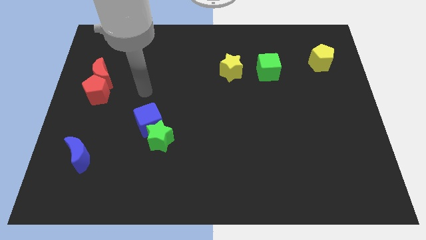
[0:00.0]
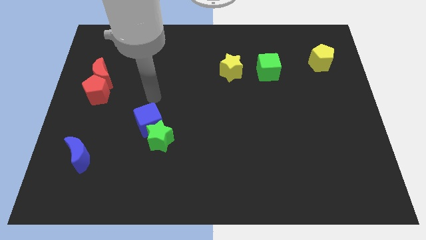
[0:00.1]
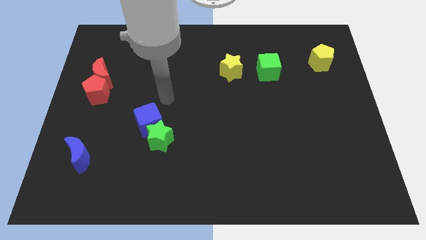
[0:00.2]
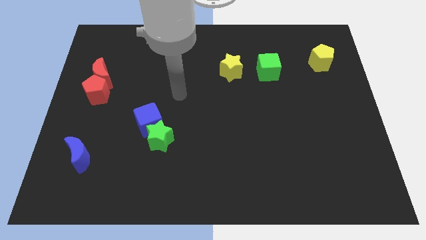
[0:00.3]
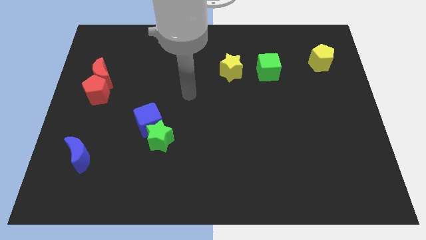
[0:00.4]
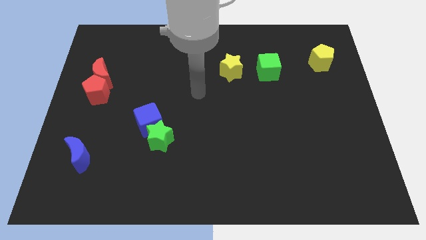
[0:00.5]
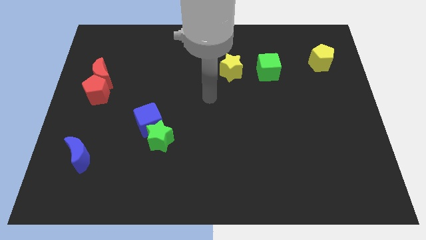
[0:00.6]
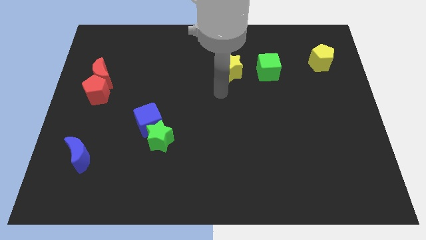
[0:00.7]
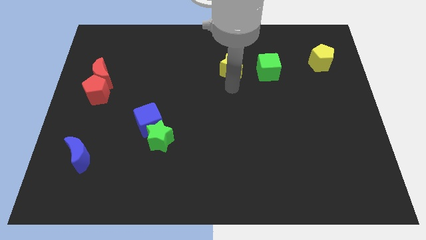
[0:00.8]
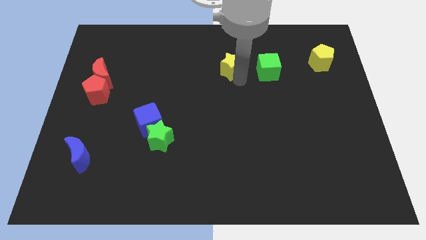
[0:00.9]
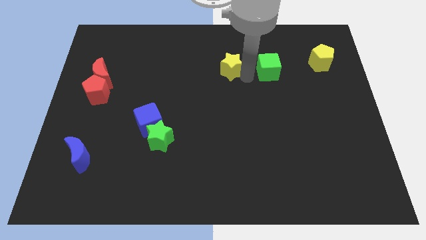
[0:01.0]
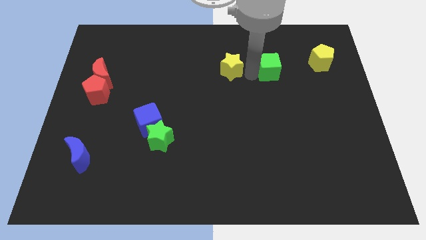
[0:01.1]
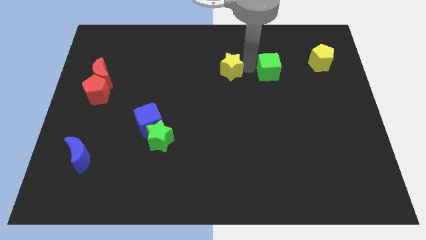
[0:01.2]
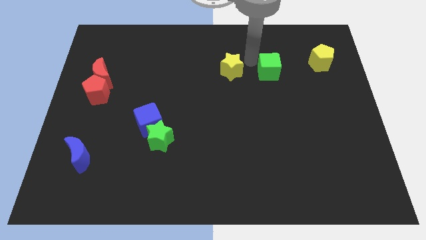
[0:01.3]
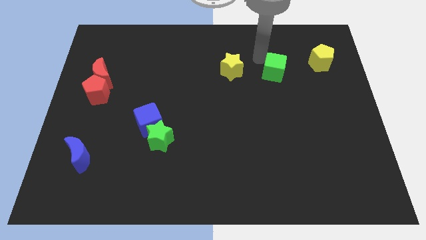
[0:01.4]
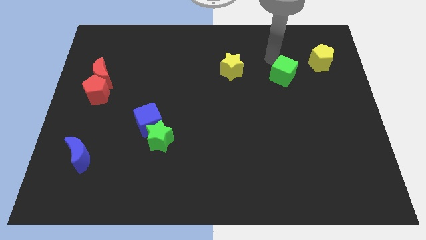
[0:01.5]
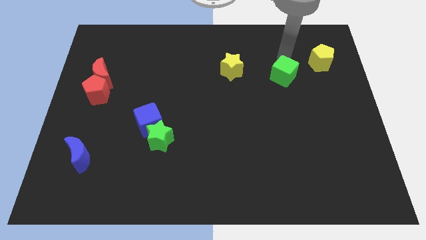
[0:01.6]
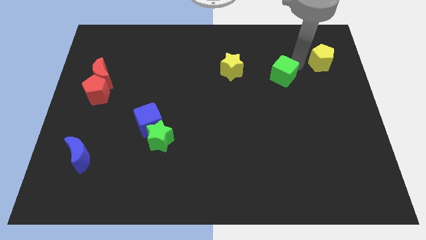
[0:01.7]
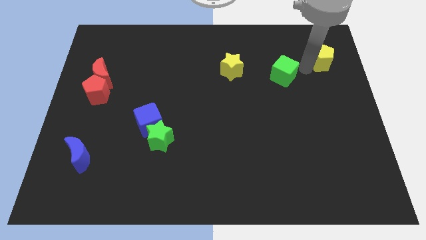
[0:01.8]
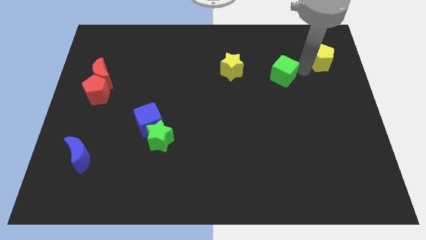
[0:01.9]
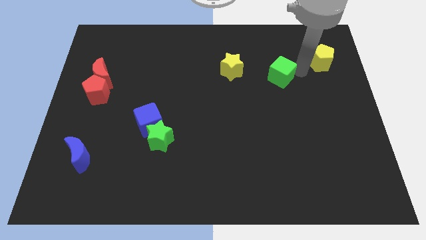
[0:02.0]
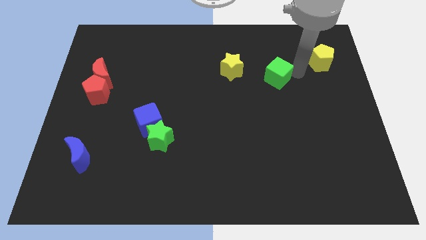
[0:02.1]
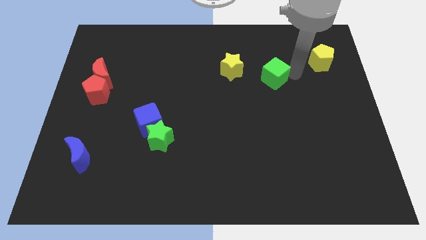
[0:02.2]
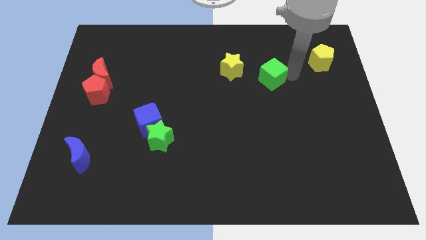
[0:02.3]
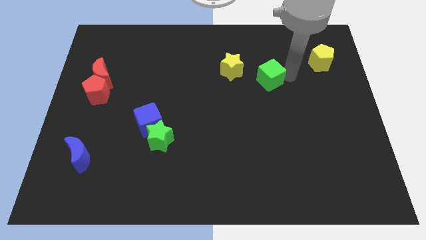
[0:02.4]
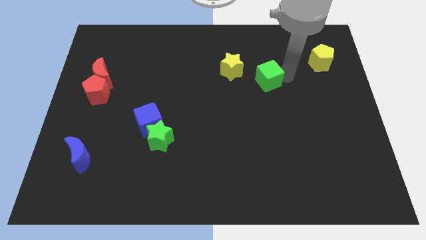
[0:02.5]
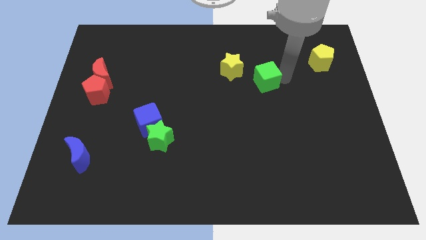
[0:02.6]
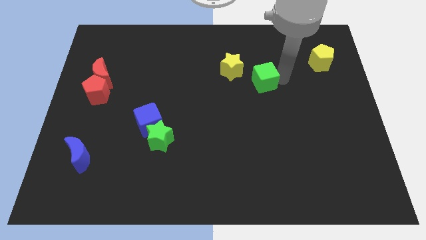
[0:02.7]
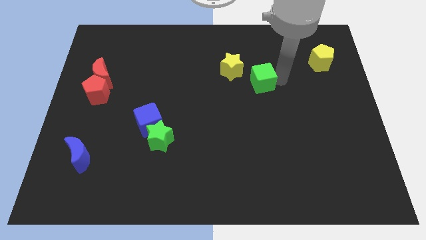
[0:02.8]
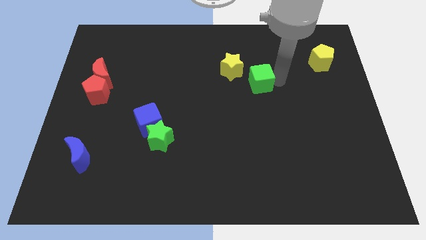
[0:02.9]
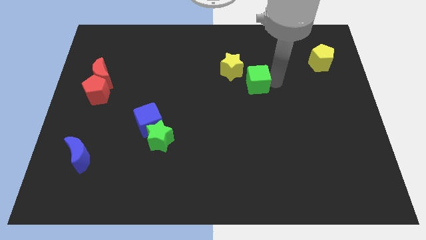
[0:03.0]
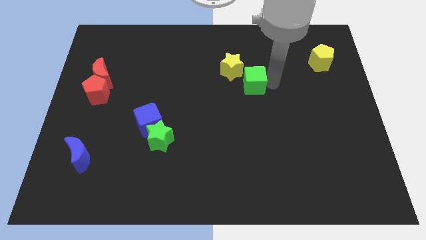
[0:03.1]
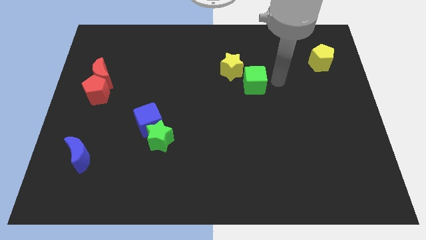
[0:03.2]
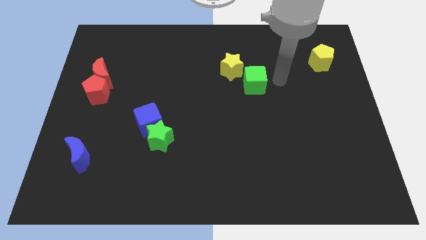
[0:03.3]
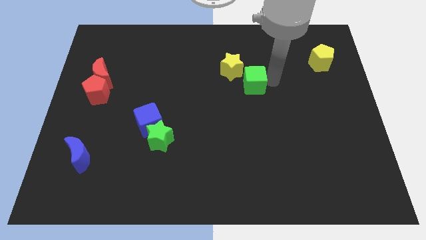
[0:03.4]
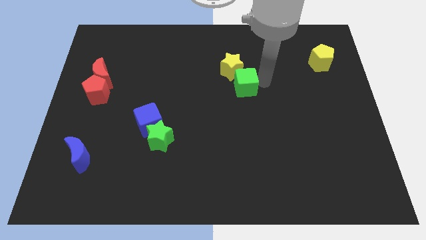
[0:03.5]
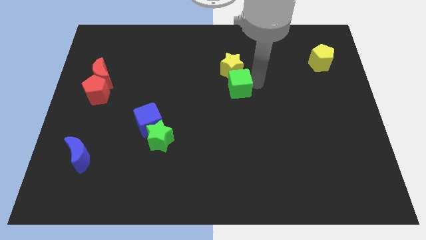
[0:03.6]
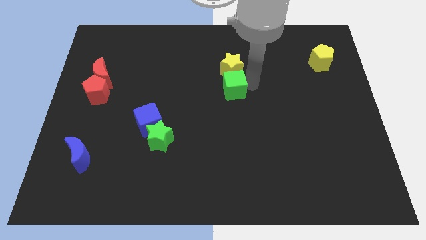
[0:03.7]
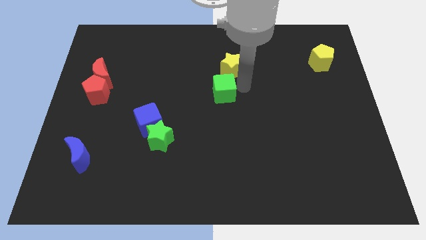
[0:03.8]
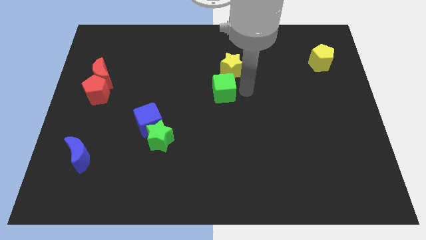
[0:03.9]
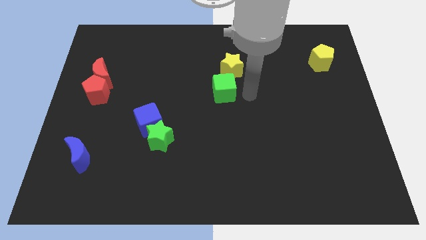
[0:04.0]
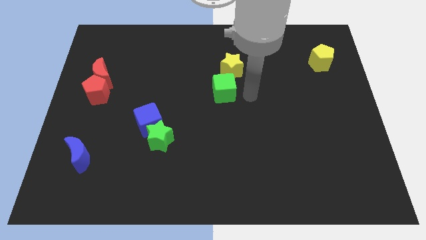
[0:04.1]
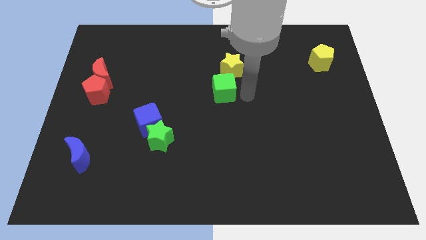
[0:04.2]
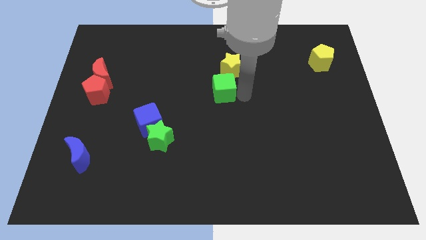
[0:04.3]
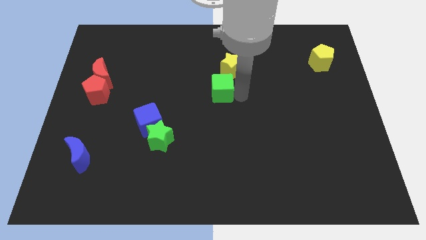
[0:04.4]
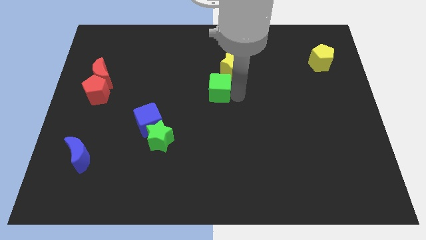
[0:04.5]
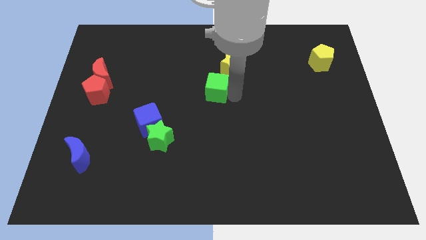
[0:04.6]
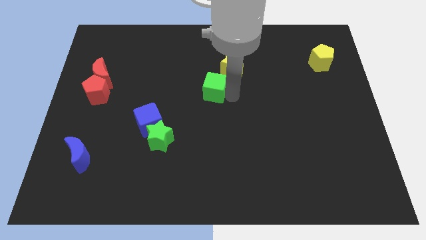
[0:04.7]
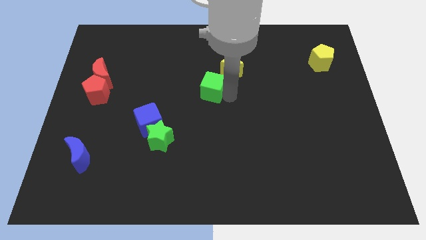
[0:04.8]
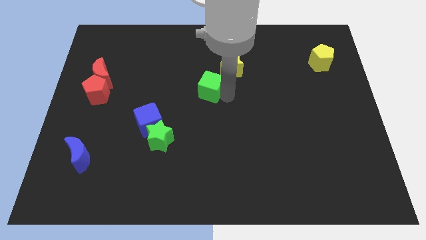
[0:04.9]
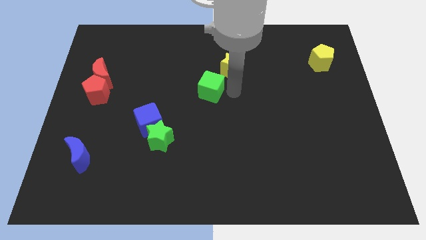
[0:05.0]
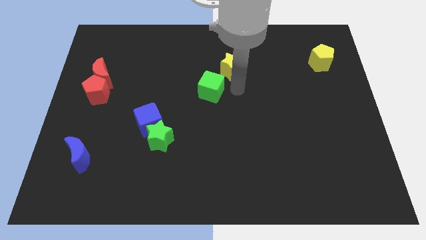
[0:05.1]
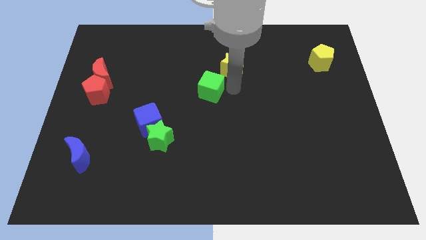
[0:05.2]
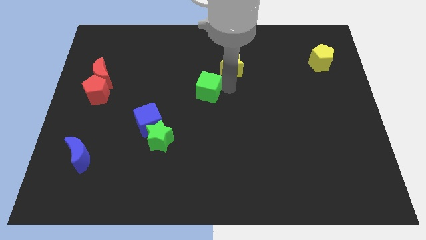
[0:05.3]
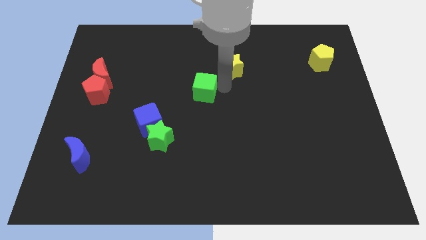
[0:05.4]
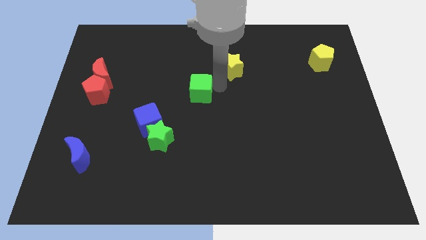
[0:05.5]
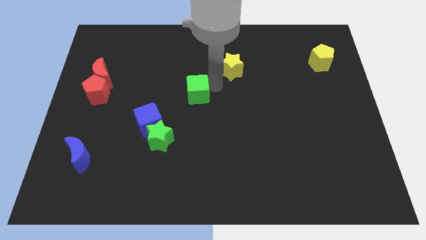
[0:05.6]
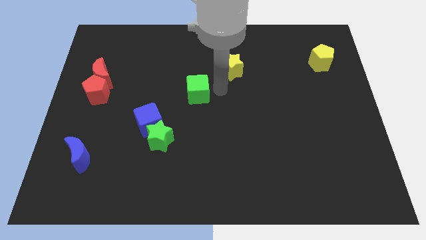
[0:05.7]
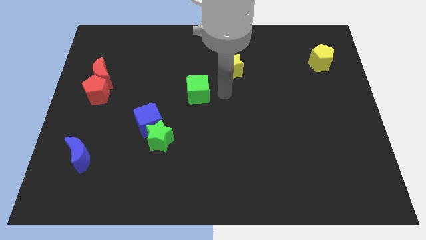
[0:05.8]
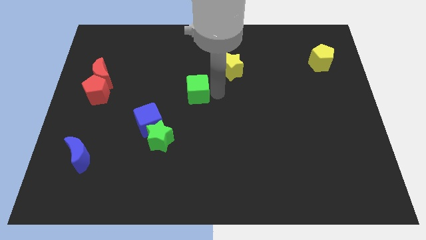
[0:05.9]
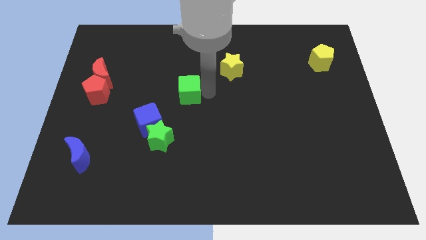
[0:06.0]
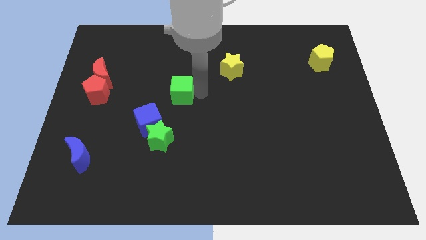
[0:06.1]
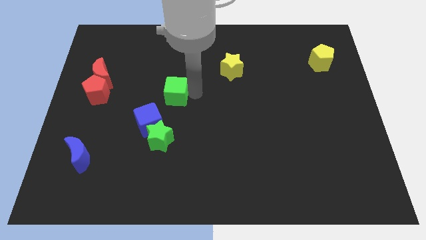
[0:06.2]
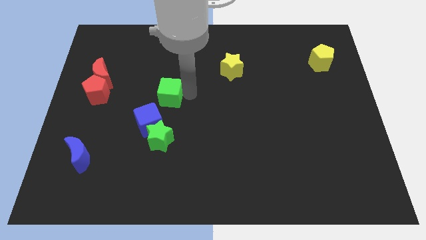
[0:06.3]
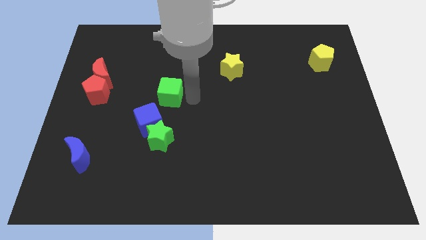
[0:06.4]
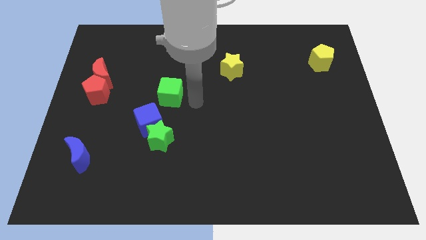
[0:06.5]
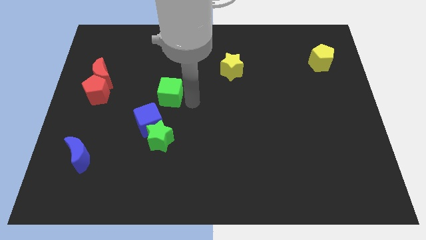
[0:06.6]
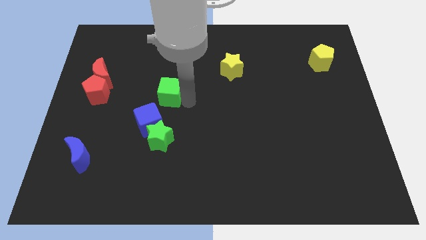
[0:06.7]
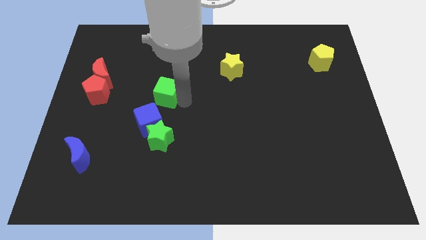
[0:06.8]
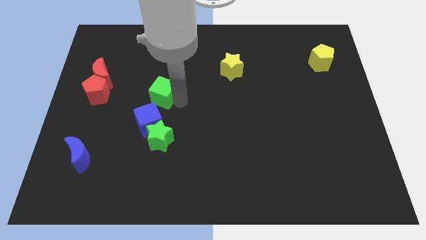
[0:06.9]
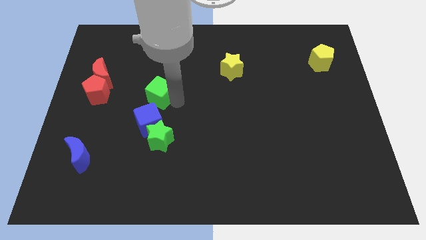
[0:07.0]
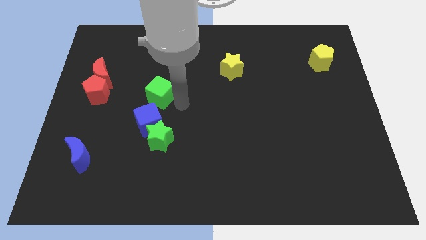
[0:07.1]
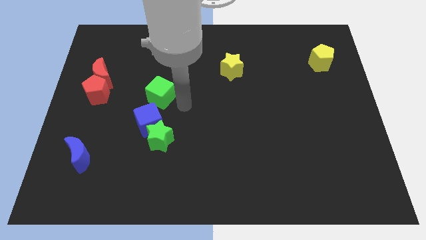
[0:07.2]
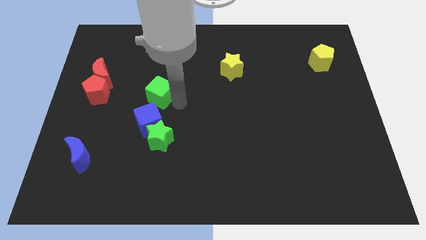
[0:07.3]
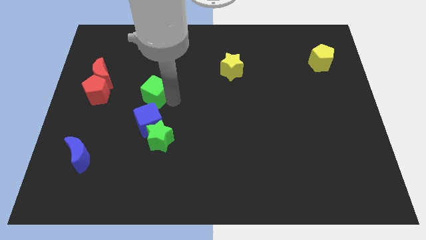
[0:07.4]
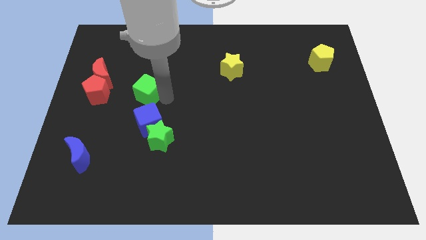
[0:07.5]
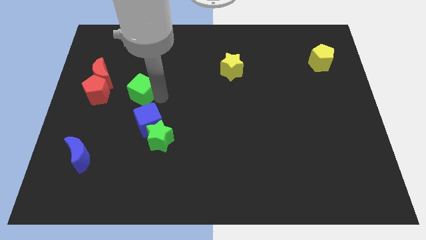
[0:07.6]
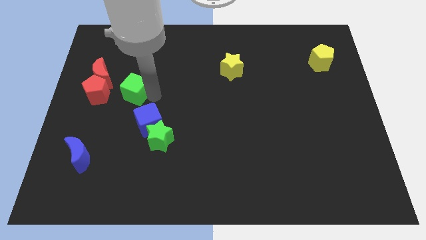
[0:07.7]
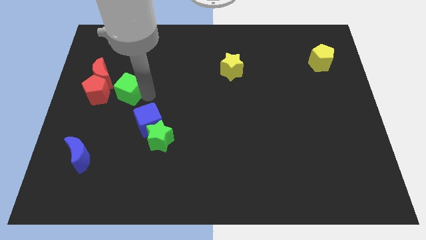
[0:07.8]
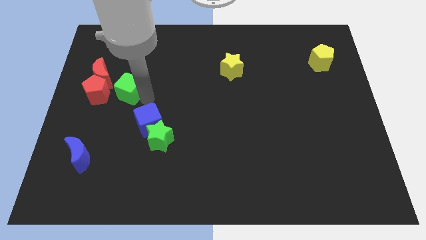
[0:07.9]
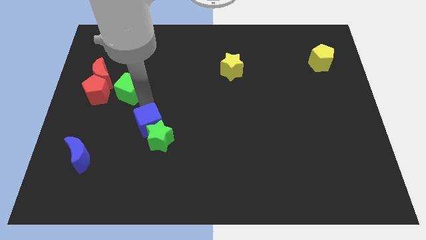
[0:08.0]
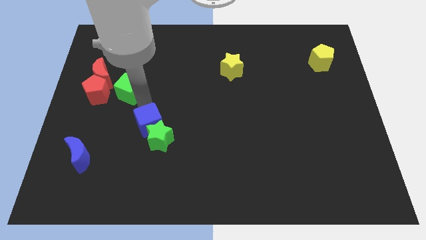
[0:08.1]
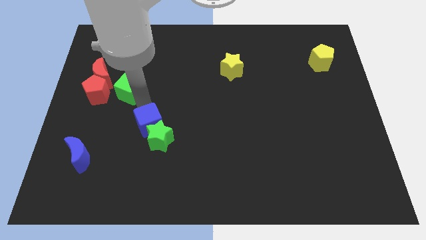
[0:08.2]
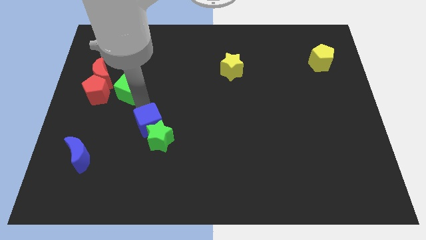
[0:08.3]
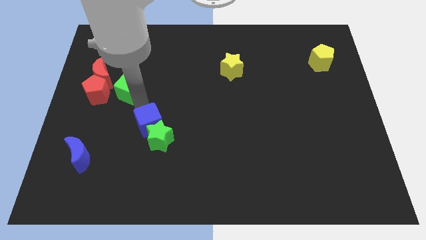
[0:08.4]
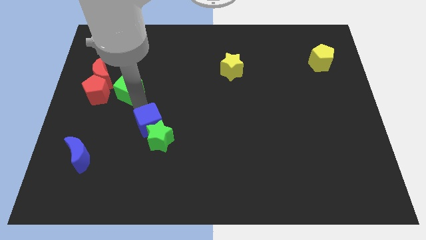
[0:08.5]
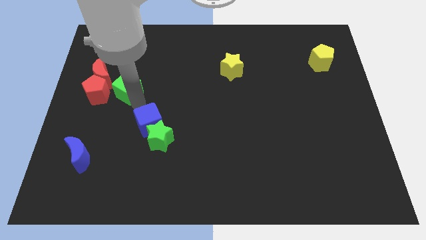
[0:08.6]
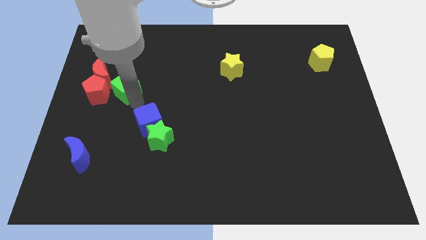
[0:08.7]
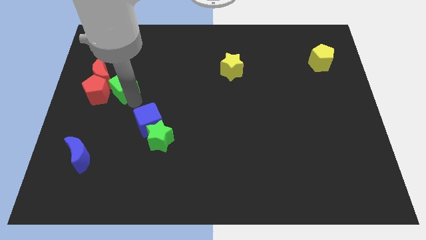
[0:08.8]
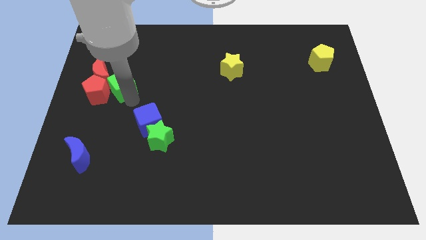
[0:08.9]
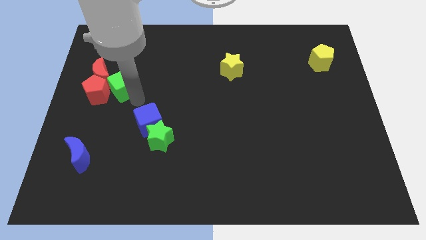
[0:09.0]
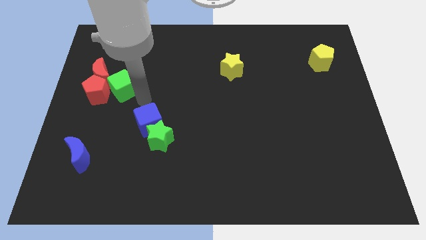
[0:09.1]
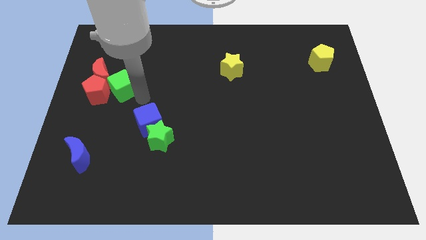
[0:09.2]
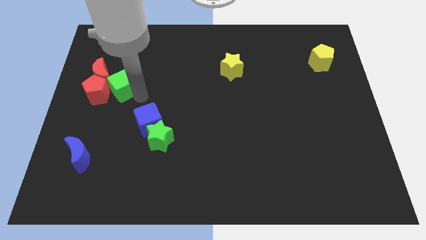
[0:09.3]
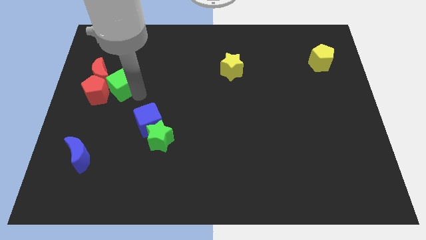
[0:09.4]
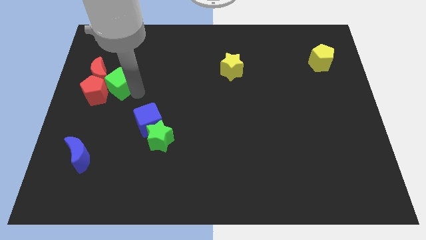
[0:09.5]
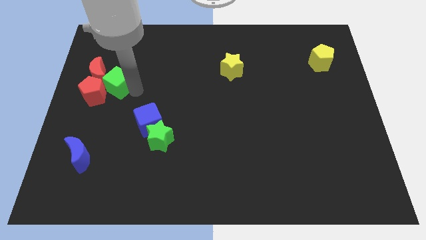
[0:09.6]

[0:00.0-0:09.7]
slide the green cube to the red moon
